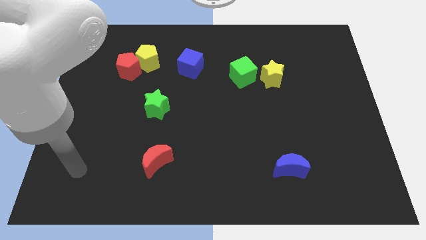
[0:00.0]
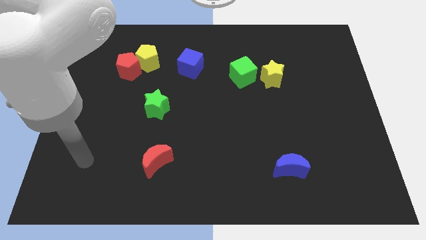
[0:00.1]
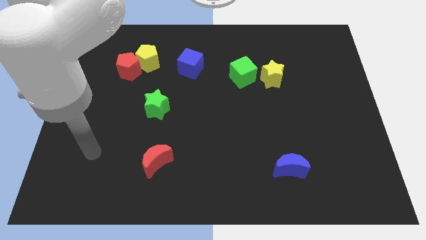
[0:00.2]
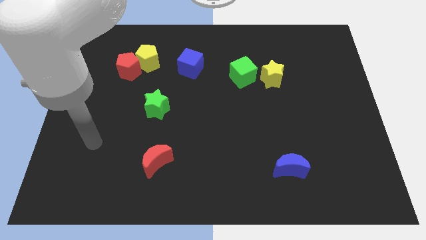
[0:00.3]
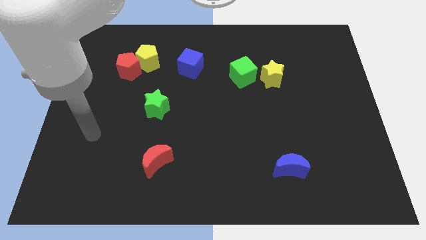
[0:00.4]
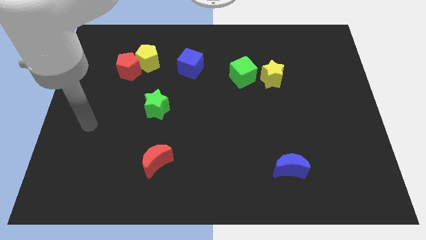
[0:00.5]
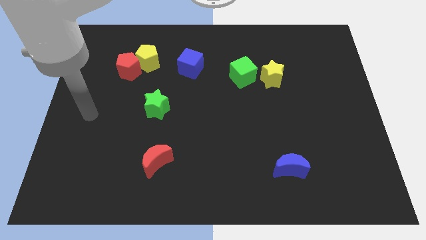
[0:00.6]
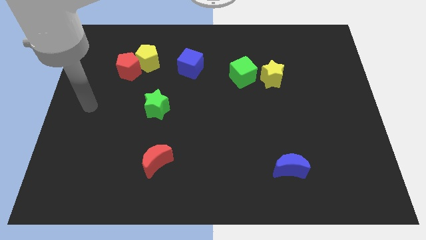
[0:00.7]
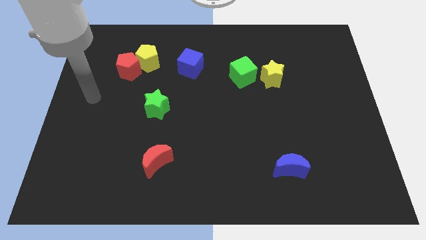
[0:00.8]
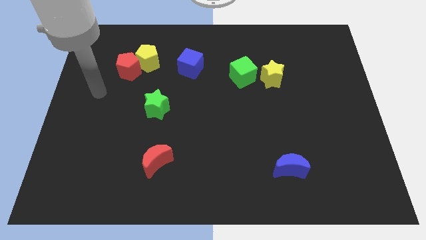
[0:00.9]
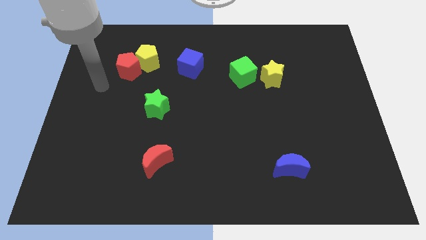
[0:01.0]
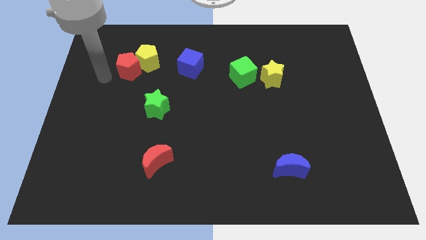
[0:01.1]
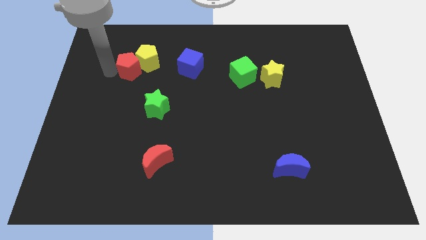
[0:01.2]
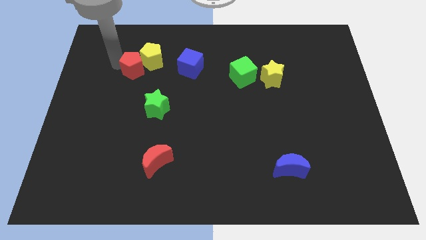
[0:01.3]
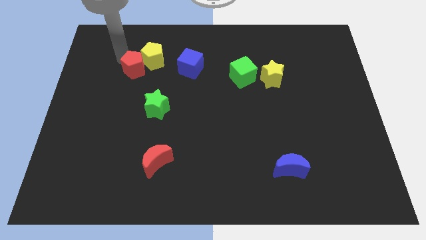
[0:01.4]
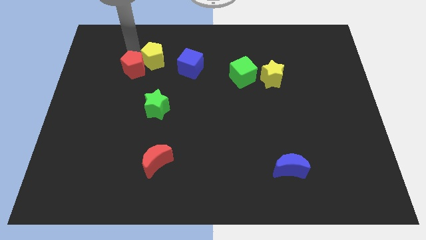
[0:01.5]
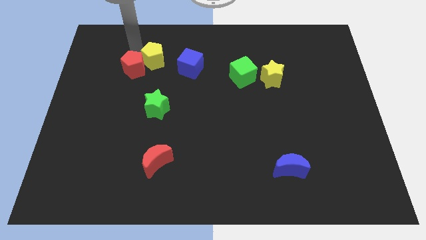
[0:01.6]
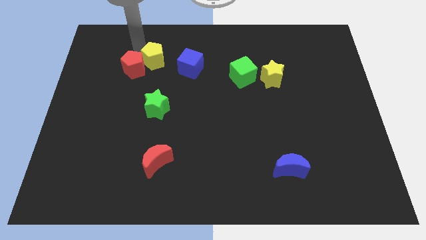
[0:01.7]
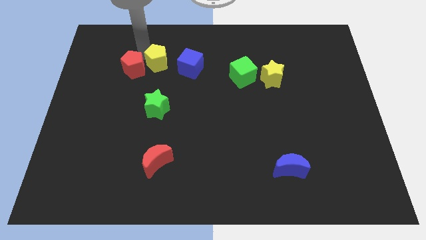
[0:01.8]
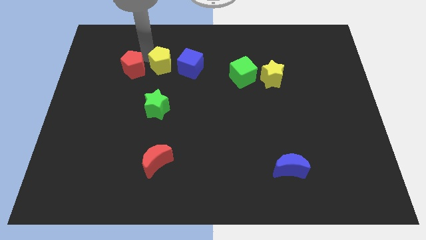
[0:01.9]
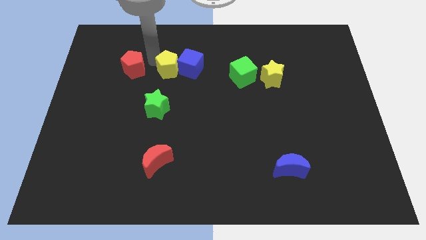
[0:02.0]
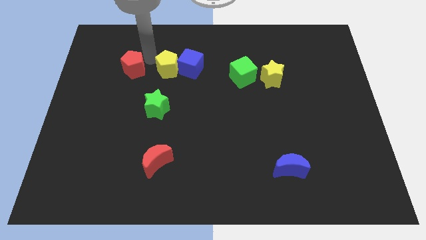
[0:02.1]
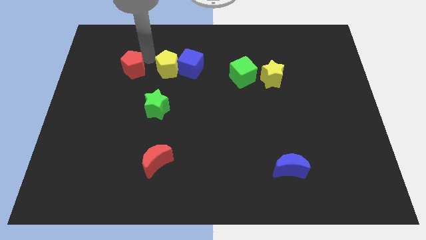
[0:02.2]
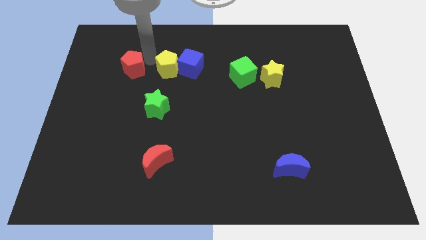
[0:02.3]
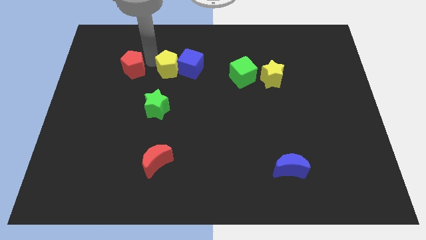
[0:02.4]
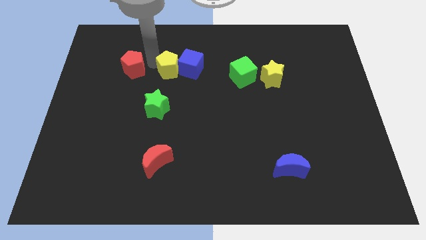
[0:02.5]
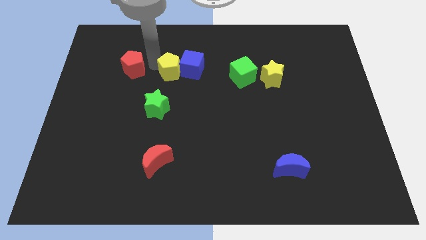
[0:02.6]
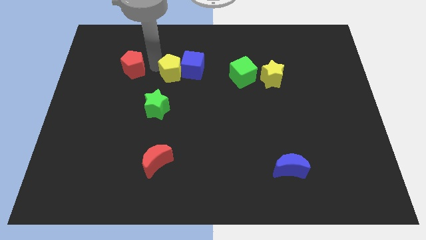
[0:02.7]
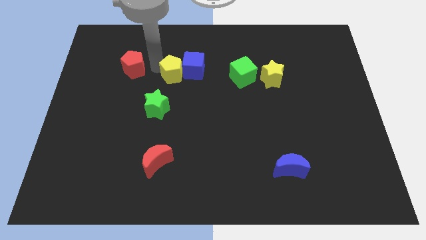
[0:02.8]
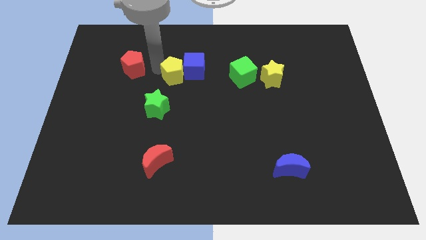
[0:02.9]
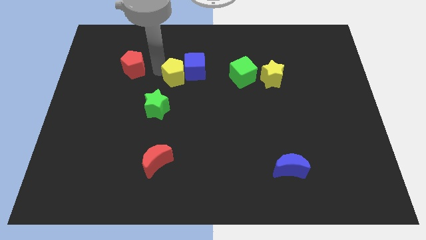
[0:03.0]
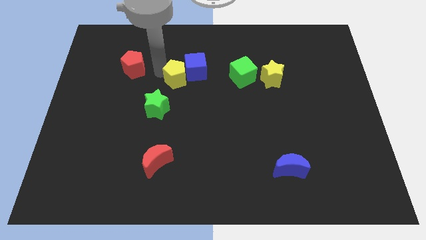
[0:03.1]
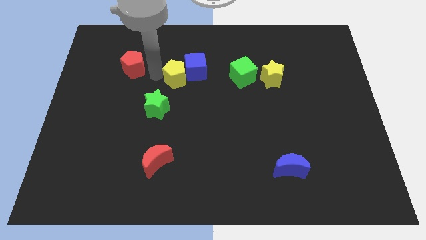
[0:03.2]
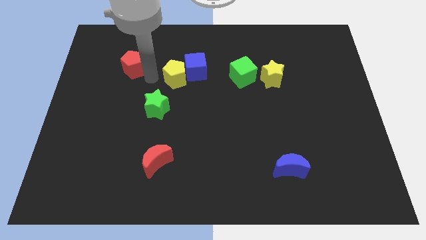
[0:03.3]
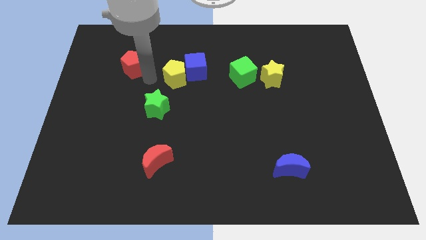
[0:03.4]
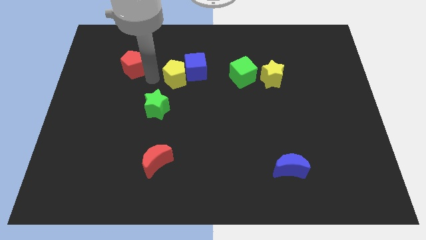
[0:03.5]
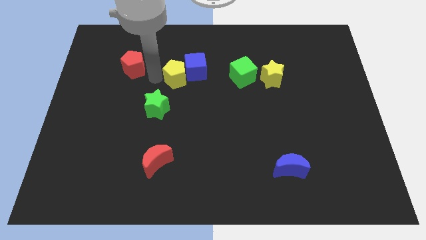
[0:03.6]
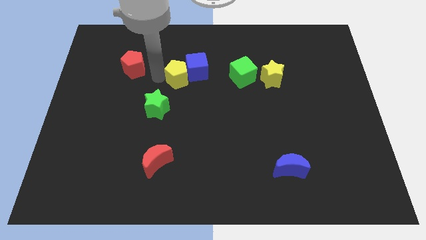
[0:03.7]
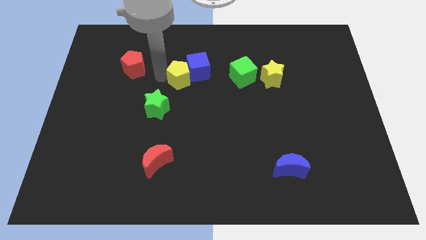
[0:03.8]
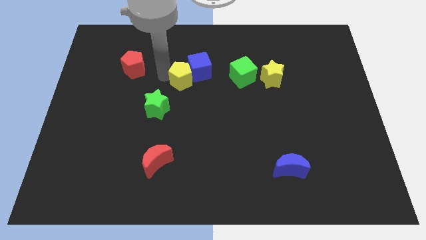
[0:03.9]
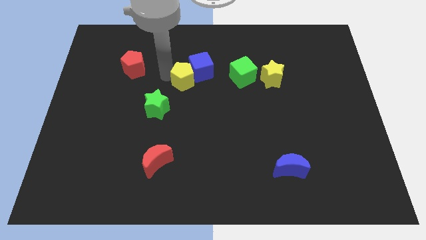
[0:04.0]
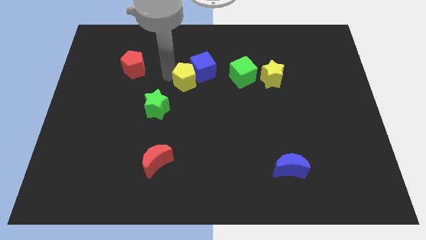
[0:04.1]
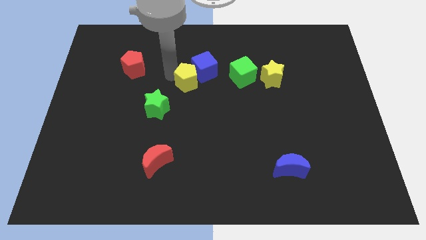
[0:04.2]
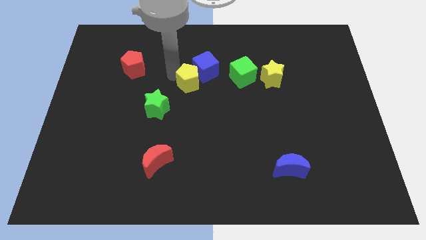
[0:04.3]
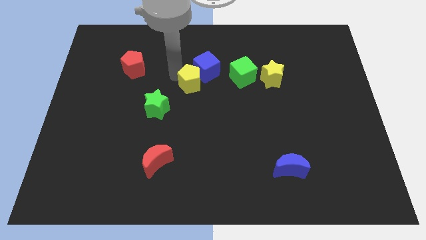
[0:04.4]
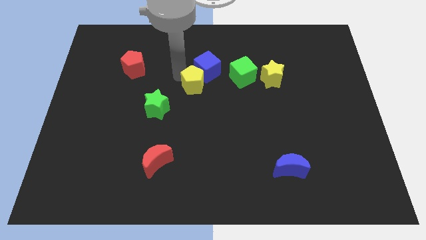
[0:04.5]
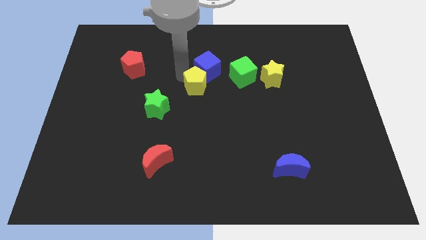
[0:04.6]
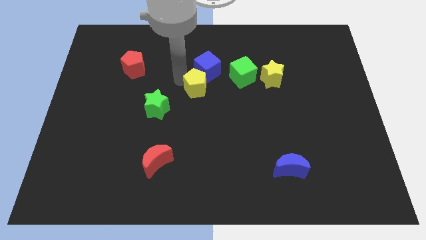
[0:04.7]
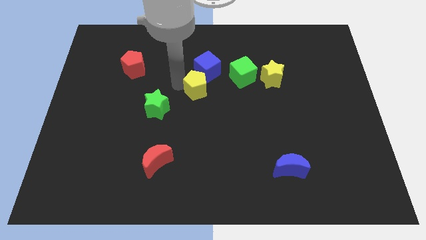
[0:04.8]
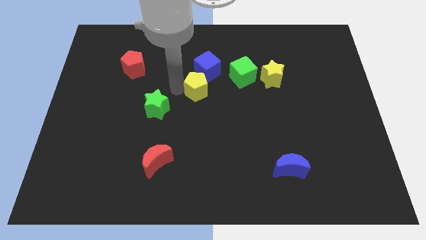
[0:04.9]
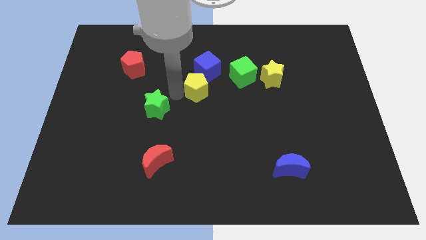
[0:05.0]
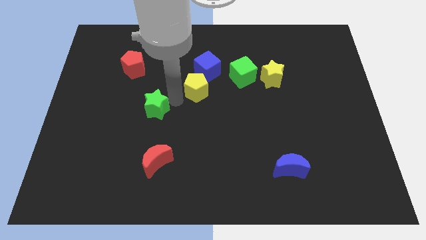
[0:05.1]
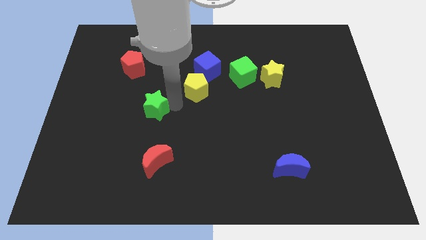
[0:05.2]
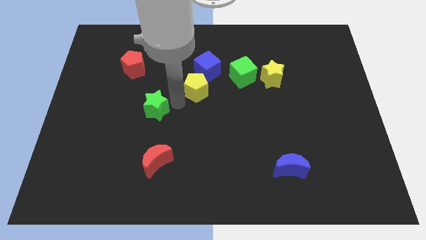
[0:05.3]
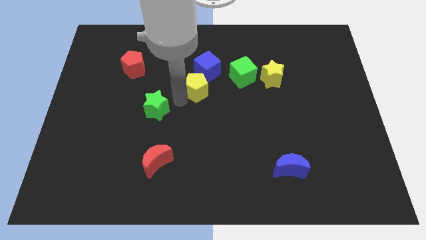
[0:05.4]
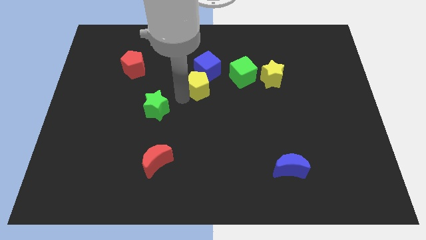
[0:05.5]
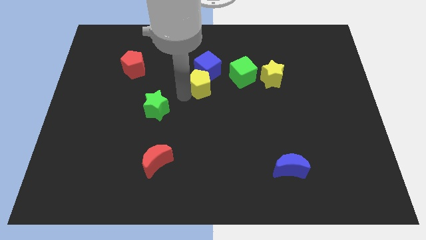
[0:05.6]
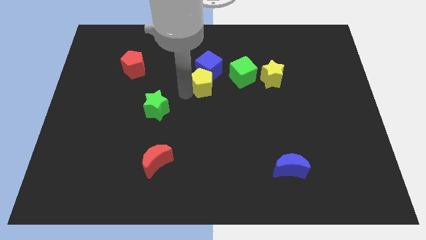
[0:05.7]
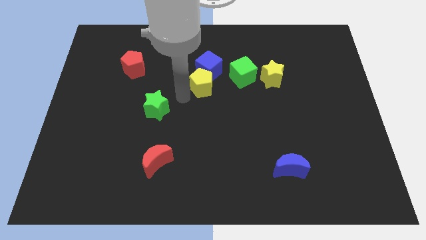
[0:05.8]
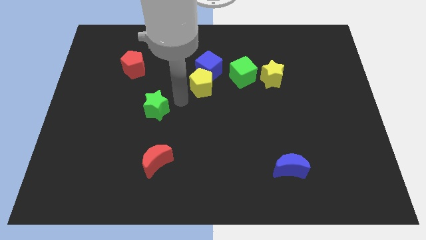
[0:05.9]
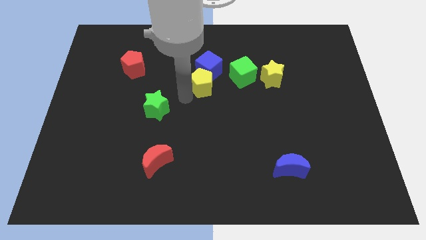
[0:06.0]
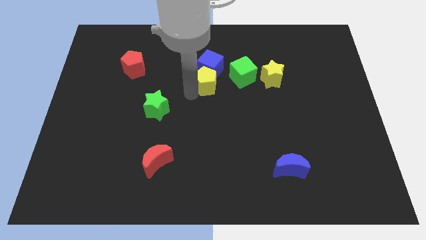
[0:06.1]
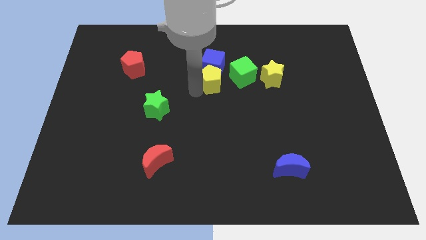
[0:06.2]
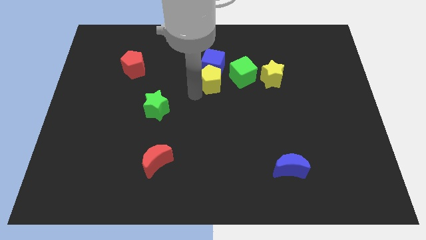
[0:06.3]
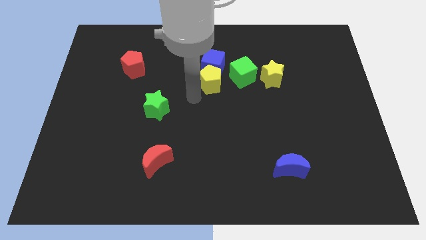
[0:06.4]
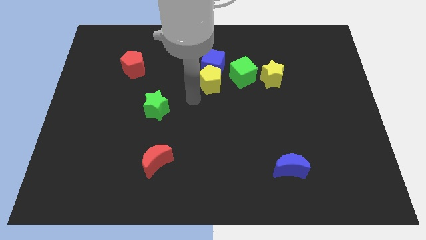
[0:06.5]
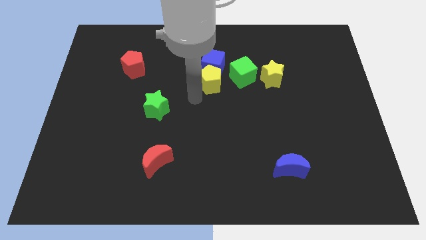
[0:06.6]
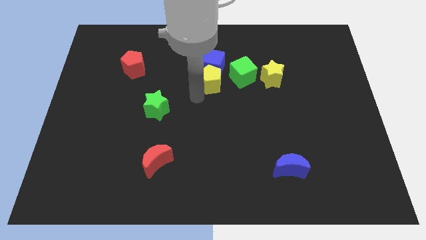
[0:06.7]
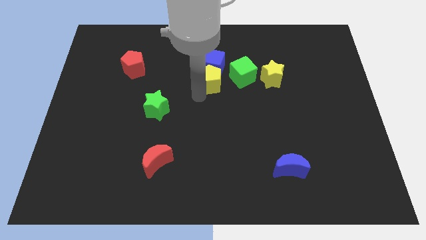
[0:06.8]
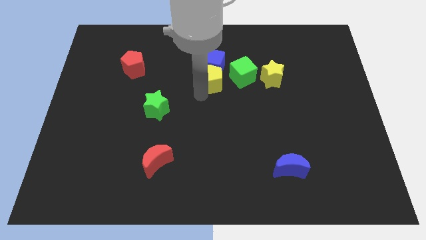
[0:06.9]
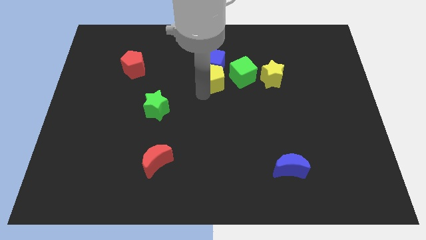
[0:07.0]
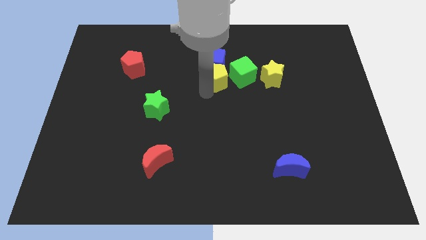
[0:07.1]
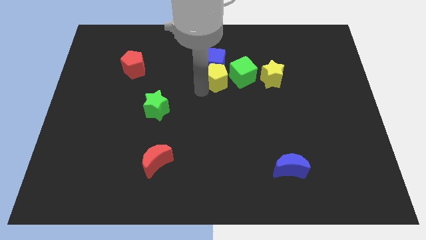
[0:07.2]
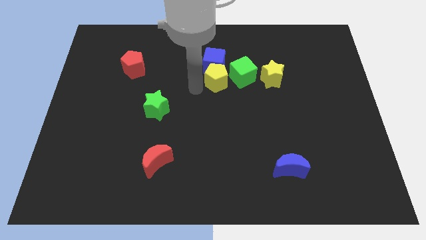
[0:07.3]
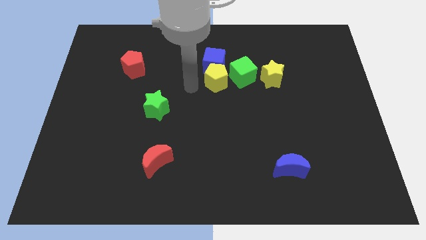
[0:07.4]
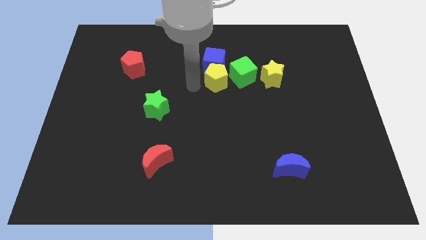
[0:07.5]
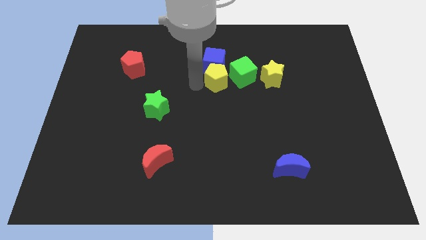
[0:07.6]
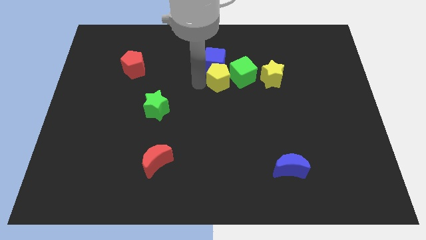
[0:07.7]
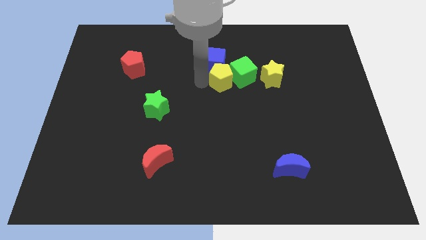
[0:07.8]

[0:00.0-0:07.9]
move the yellow pentagon to the green cube
